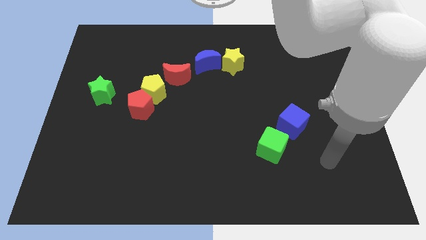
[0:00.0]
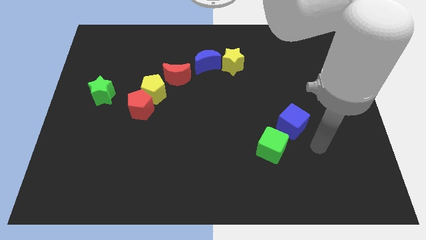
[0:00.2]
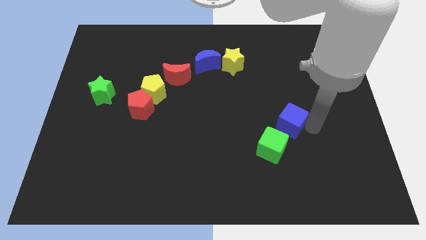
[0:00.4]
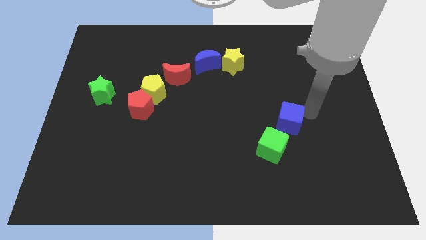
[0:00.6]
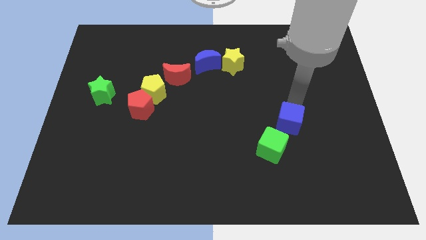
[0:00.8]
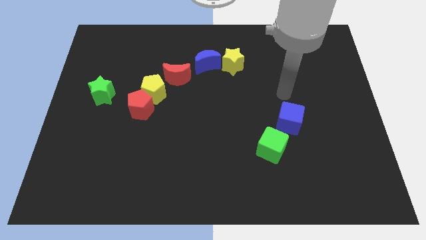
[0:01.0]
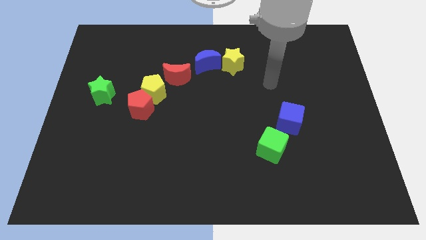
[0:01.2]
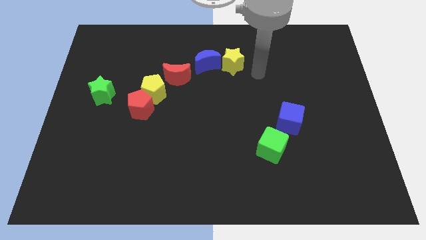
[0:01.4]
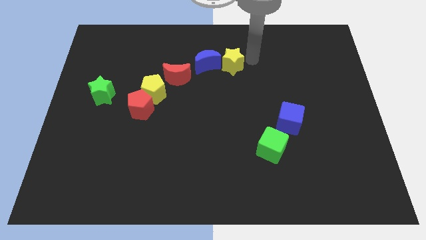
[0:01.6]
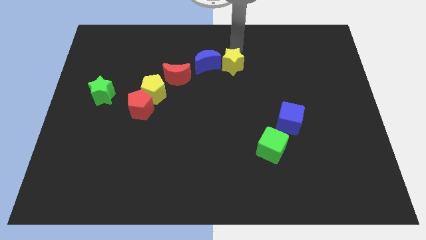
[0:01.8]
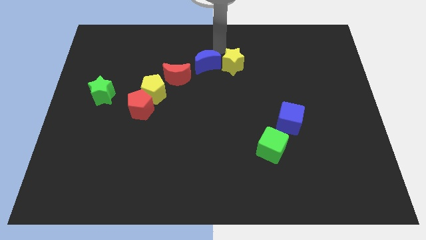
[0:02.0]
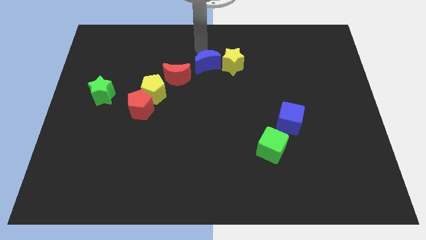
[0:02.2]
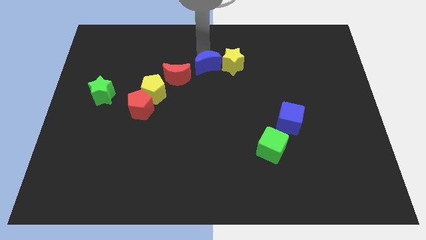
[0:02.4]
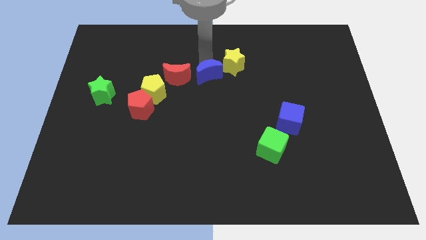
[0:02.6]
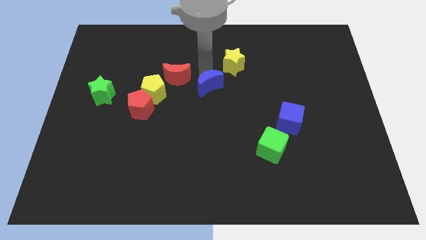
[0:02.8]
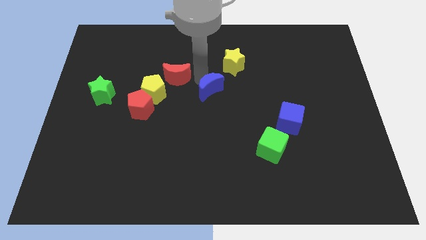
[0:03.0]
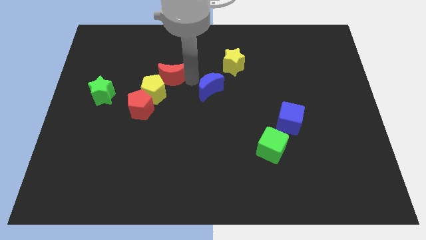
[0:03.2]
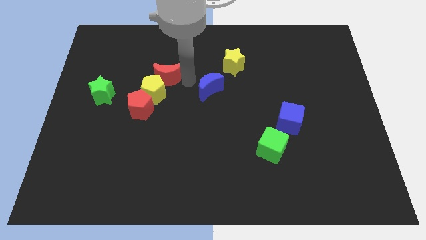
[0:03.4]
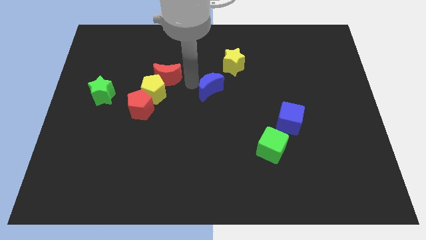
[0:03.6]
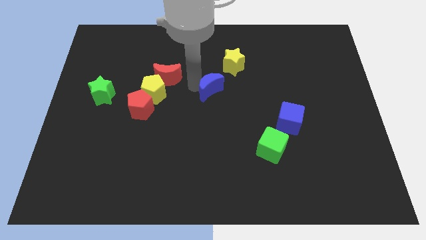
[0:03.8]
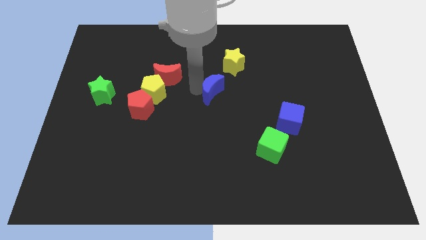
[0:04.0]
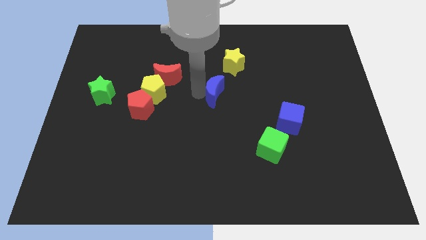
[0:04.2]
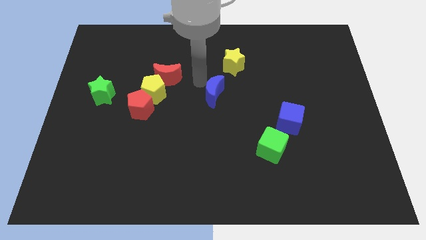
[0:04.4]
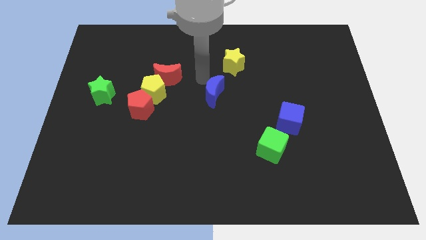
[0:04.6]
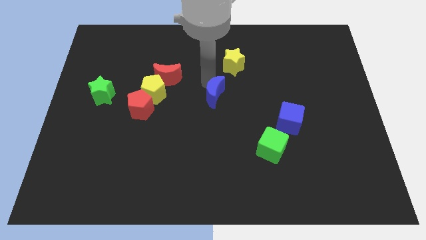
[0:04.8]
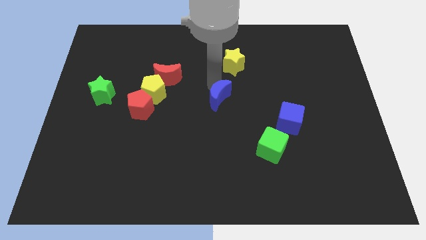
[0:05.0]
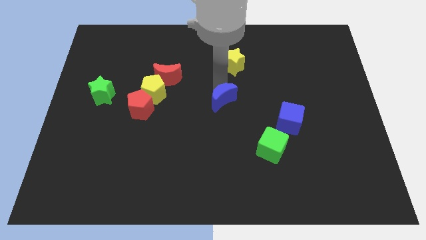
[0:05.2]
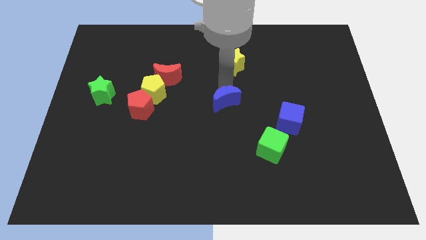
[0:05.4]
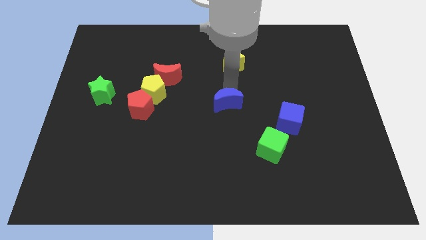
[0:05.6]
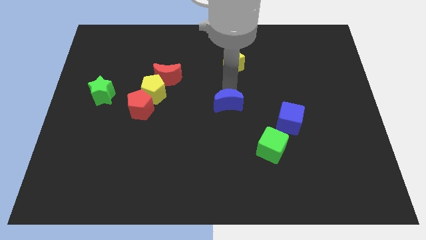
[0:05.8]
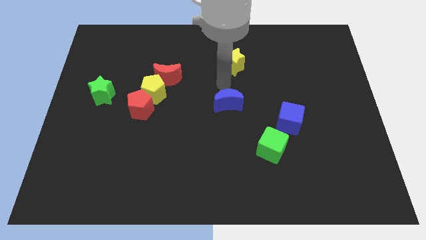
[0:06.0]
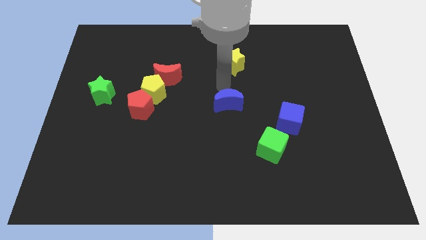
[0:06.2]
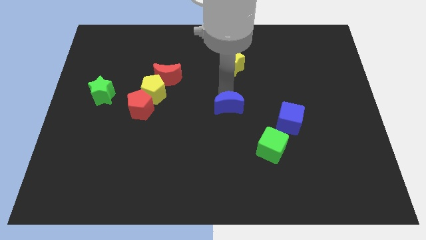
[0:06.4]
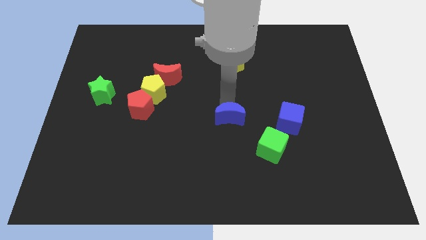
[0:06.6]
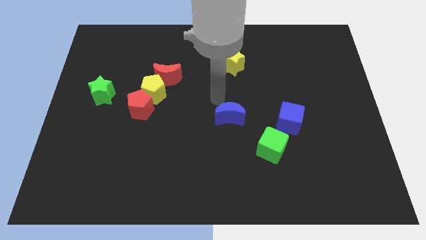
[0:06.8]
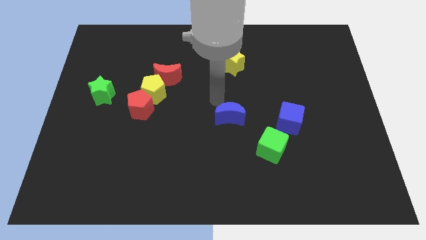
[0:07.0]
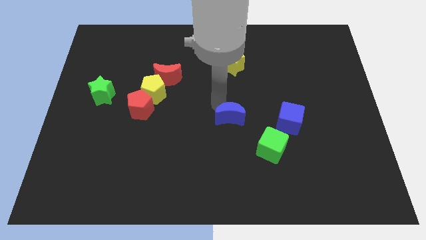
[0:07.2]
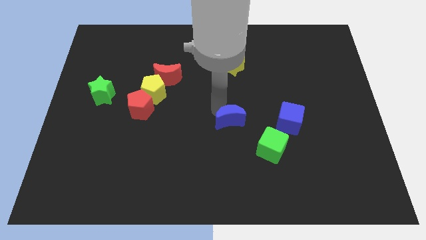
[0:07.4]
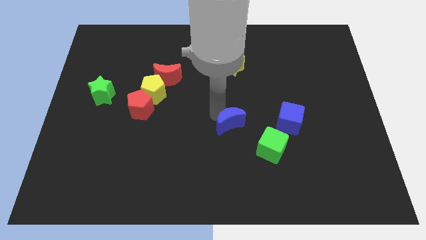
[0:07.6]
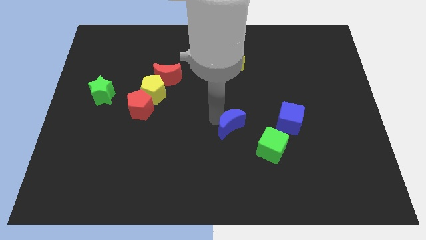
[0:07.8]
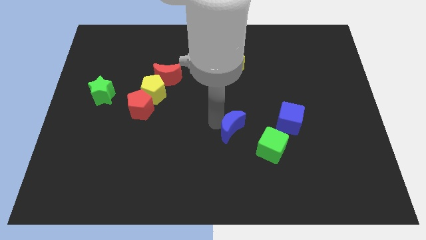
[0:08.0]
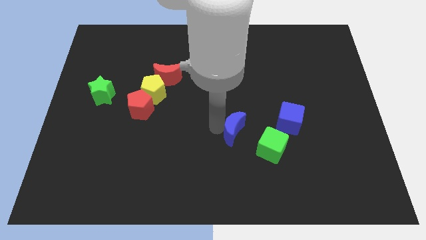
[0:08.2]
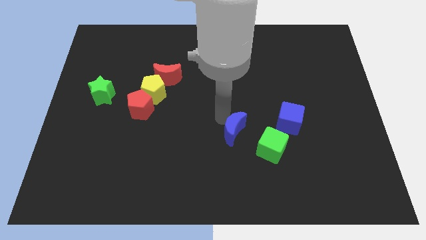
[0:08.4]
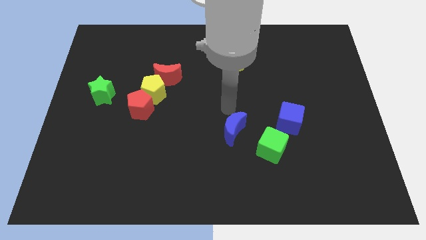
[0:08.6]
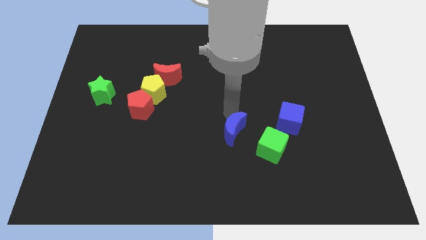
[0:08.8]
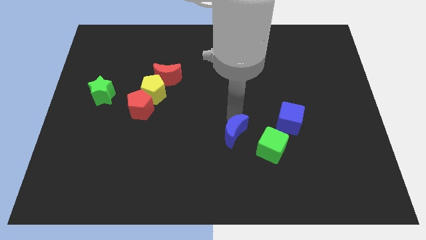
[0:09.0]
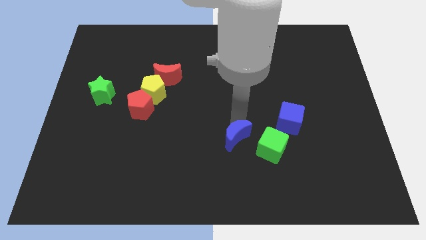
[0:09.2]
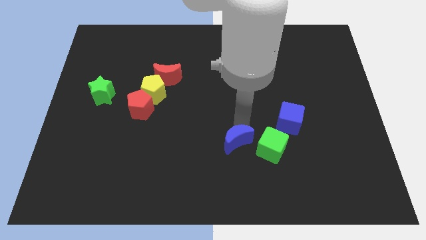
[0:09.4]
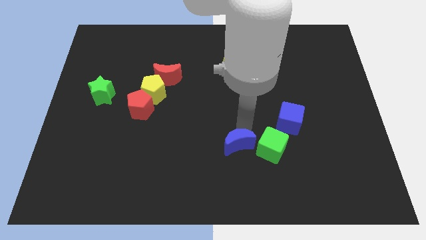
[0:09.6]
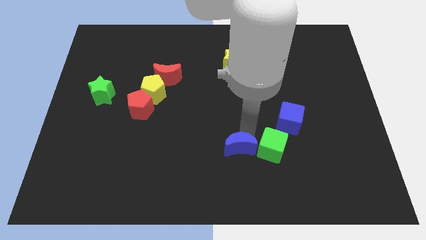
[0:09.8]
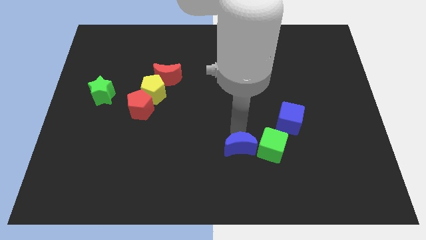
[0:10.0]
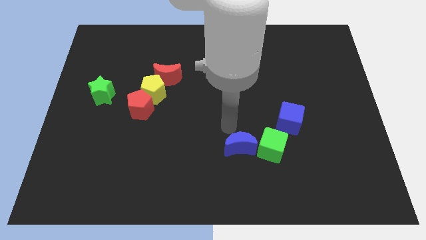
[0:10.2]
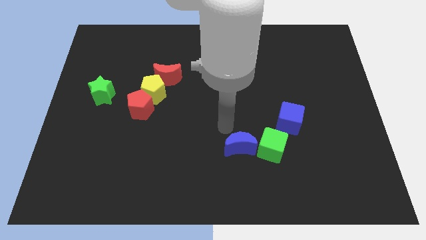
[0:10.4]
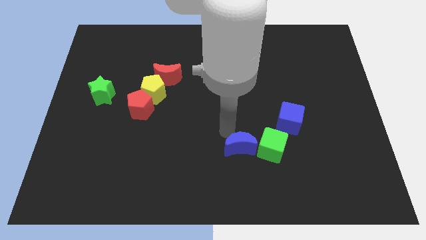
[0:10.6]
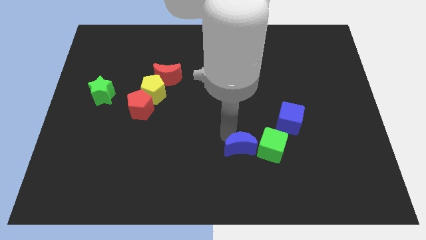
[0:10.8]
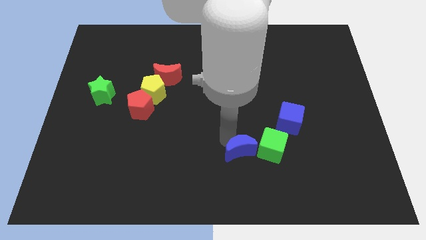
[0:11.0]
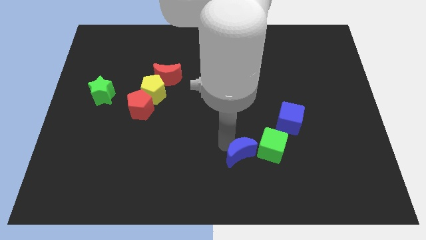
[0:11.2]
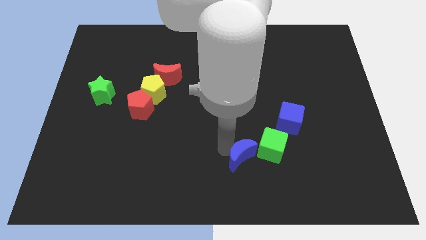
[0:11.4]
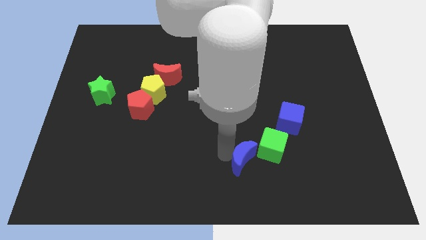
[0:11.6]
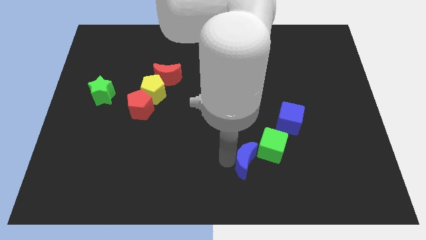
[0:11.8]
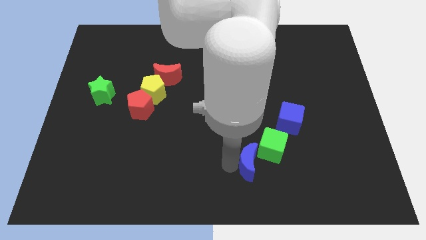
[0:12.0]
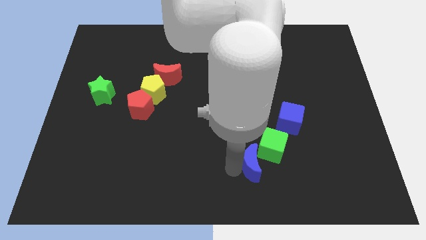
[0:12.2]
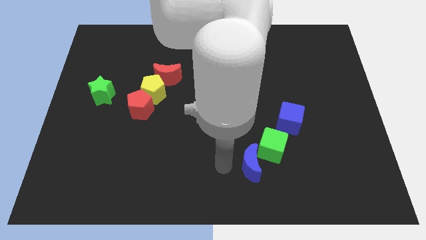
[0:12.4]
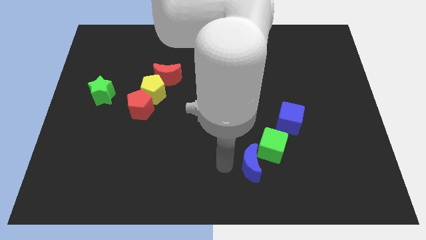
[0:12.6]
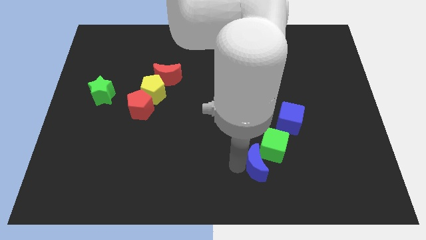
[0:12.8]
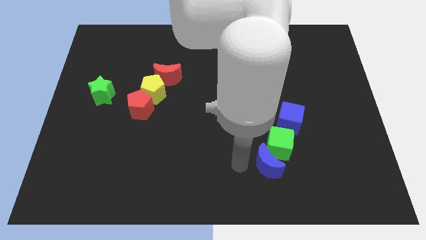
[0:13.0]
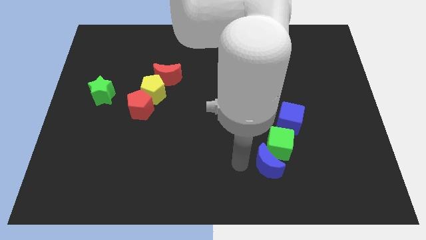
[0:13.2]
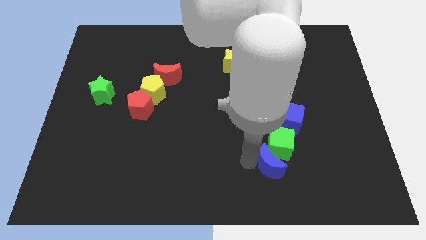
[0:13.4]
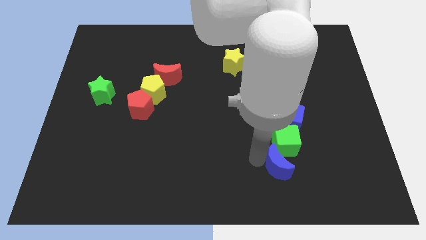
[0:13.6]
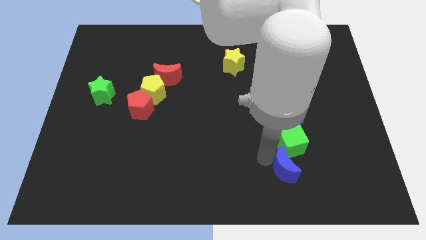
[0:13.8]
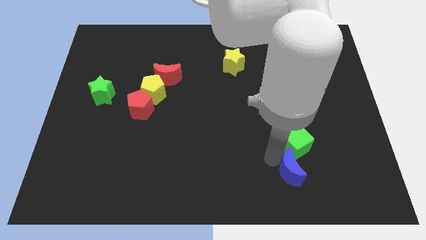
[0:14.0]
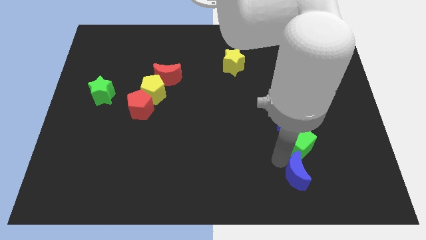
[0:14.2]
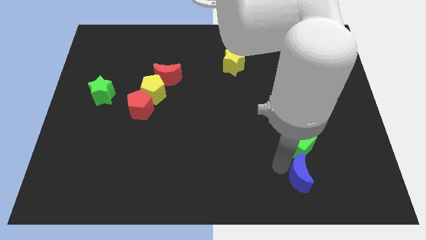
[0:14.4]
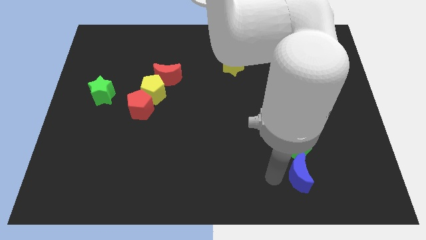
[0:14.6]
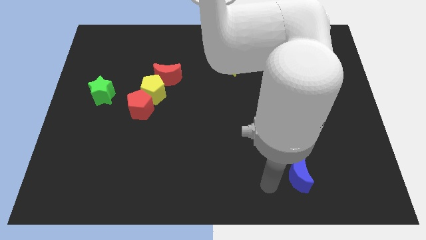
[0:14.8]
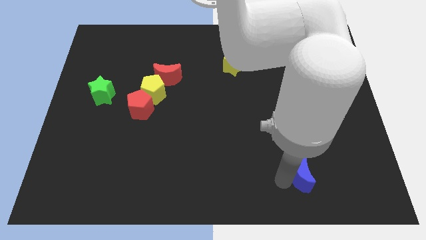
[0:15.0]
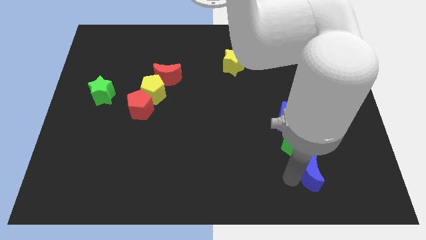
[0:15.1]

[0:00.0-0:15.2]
slide the blue moon diagonally down and to the right of the green cube
